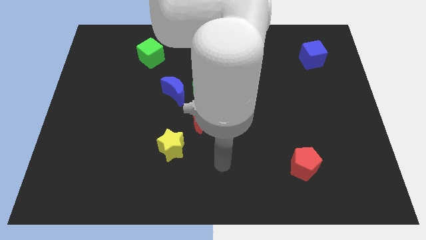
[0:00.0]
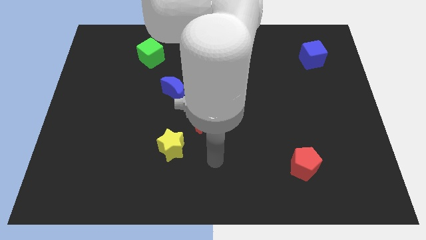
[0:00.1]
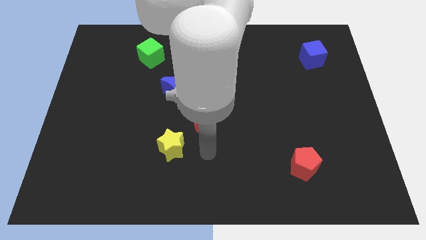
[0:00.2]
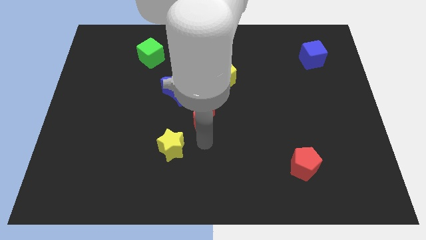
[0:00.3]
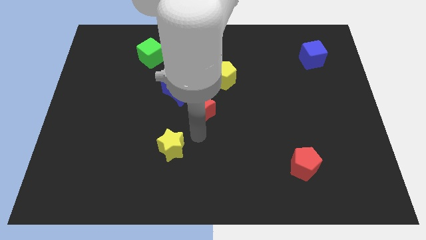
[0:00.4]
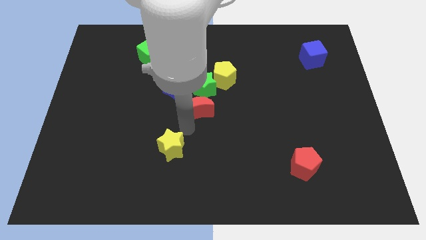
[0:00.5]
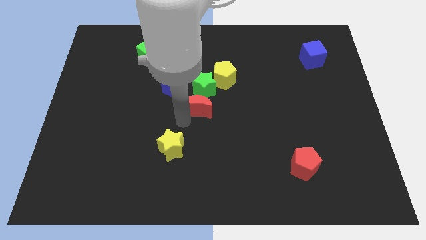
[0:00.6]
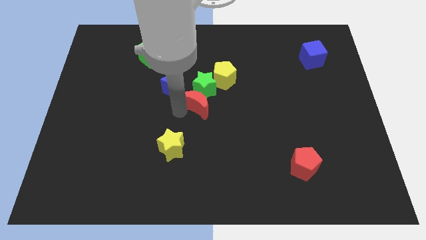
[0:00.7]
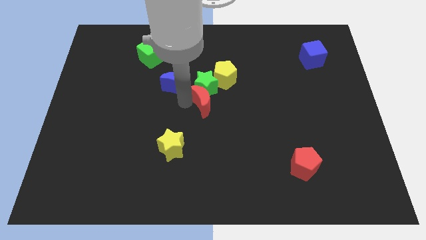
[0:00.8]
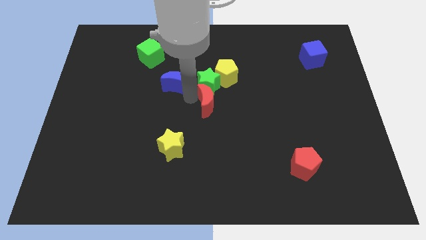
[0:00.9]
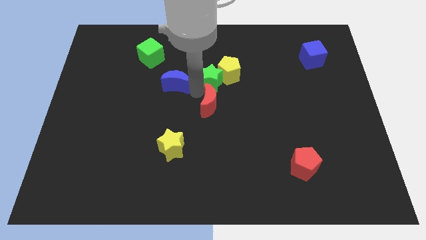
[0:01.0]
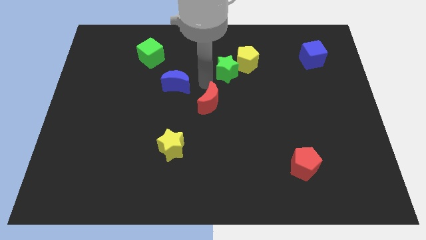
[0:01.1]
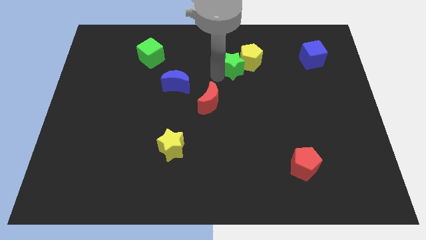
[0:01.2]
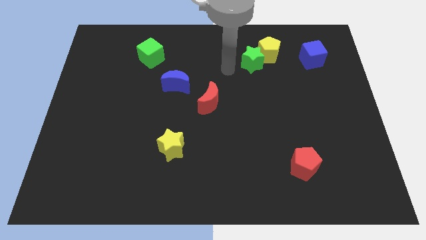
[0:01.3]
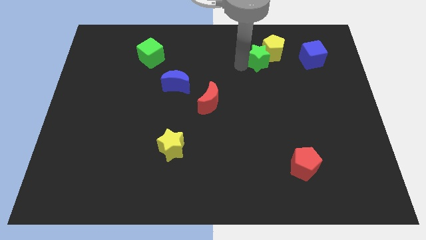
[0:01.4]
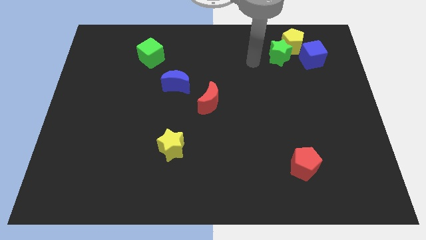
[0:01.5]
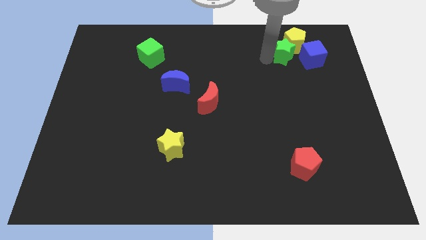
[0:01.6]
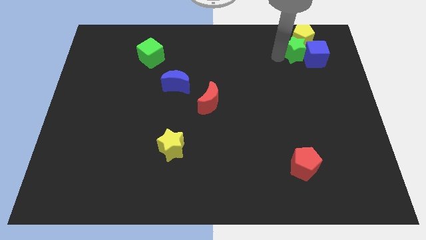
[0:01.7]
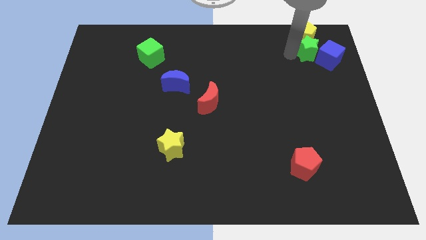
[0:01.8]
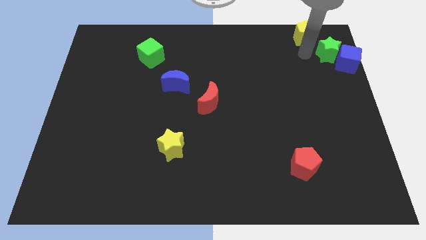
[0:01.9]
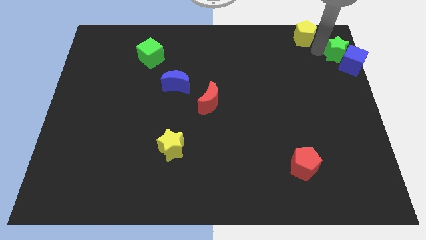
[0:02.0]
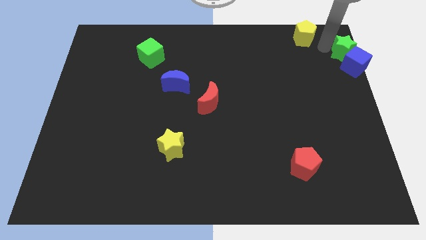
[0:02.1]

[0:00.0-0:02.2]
move the yellow pentagon away from the green star

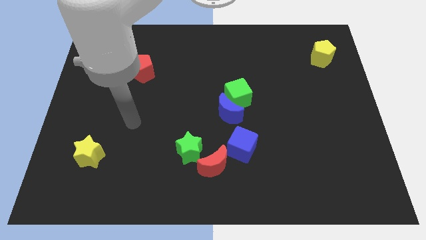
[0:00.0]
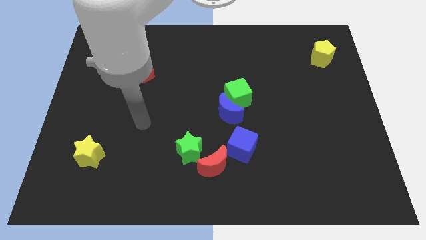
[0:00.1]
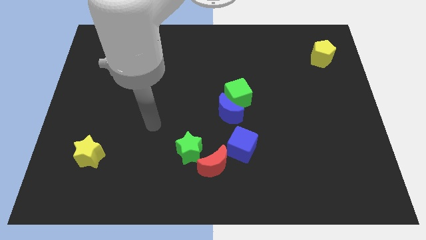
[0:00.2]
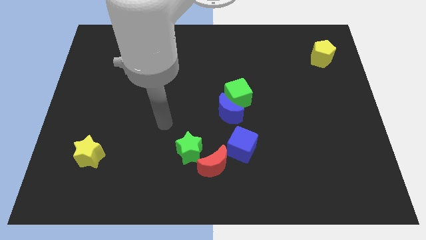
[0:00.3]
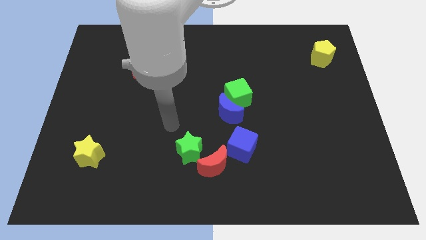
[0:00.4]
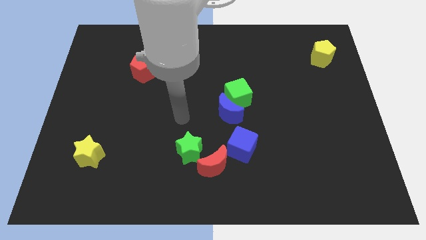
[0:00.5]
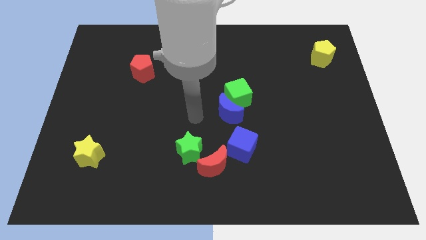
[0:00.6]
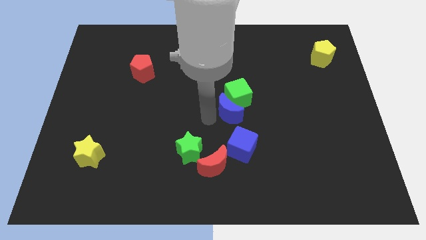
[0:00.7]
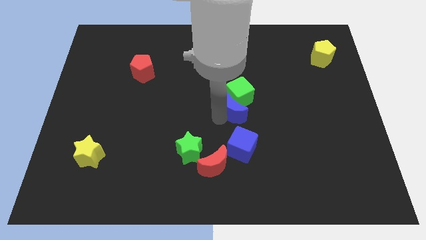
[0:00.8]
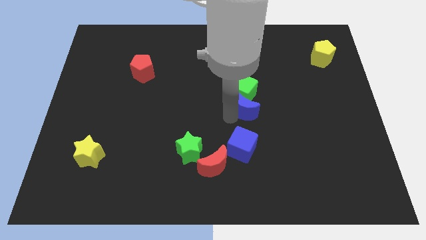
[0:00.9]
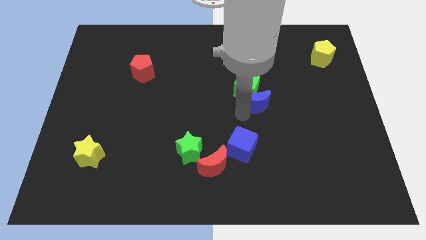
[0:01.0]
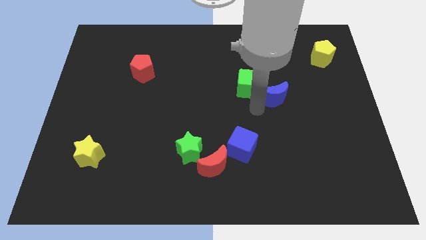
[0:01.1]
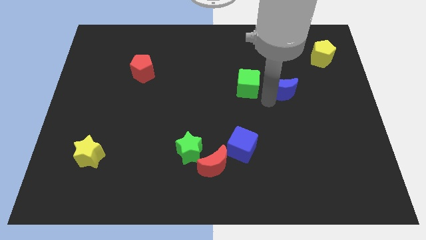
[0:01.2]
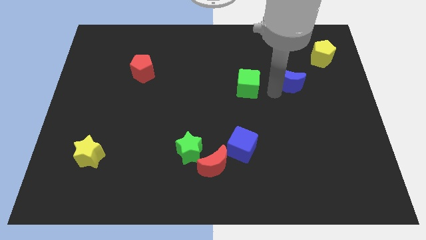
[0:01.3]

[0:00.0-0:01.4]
separate the green cube from the blue moon

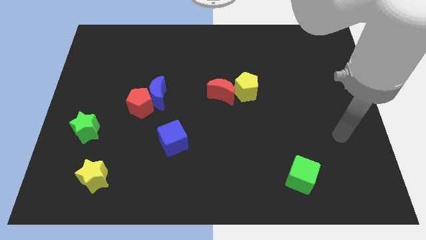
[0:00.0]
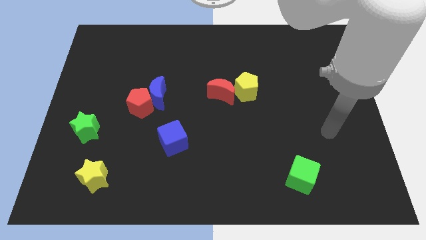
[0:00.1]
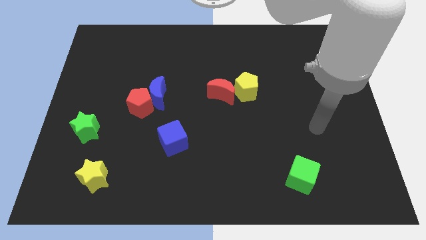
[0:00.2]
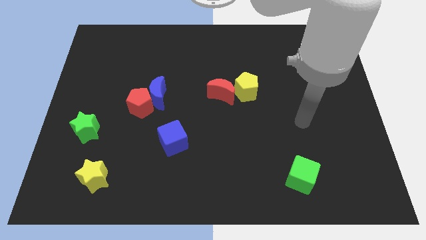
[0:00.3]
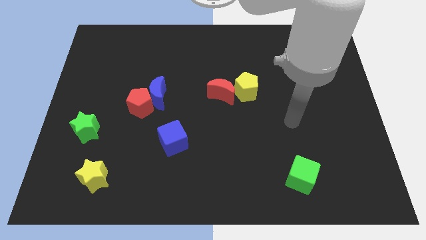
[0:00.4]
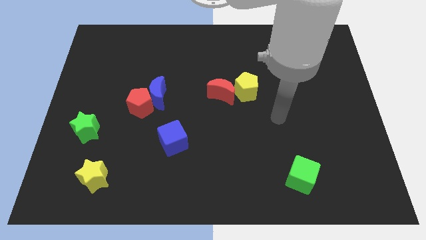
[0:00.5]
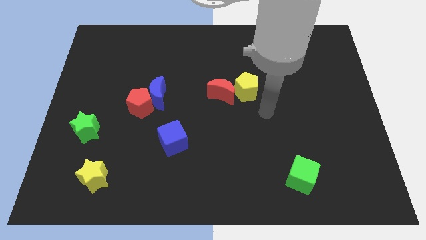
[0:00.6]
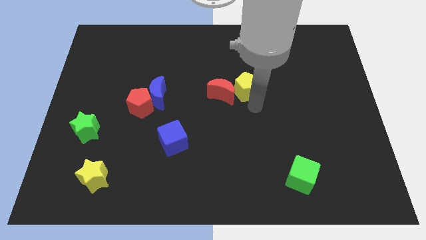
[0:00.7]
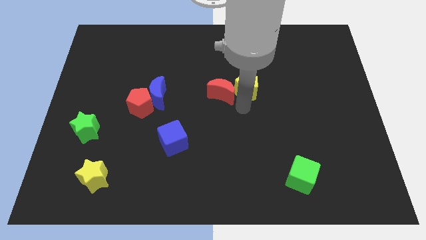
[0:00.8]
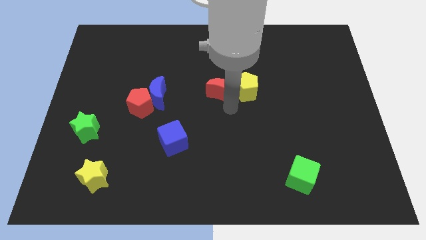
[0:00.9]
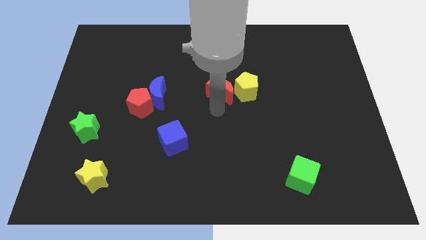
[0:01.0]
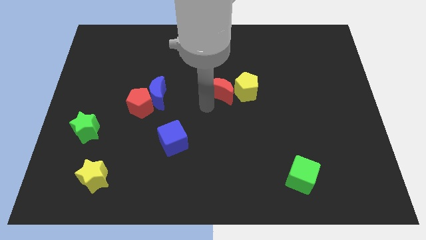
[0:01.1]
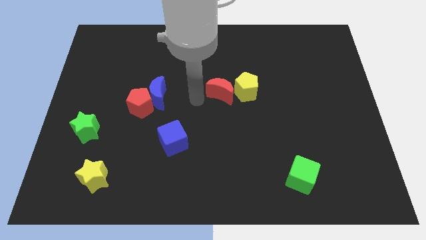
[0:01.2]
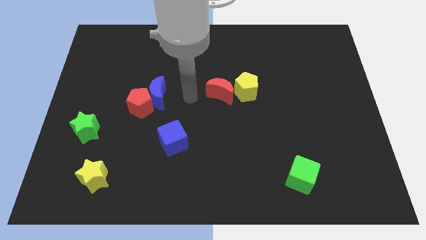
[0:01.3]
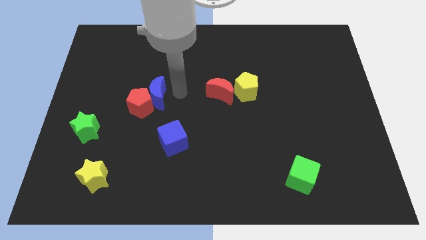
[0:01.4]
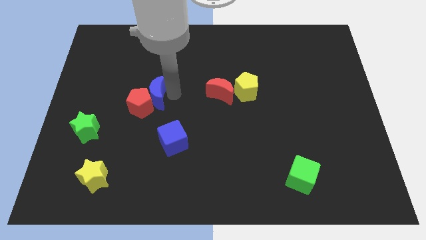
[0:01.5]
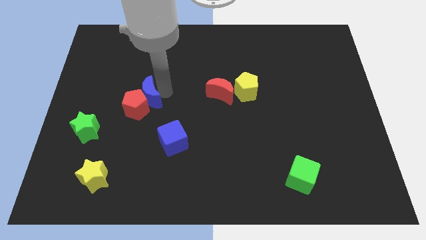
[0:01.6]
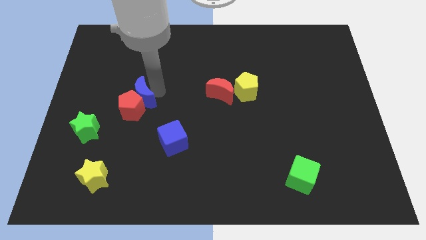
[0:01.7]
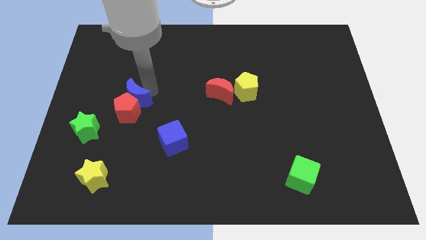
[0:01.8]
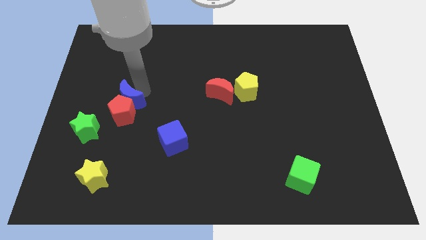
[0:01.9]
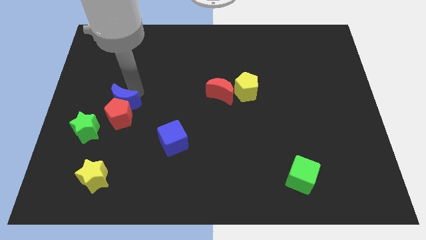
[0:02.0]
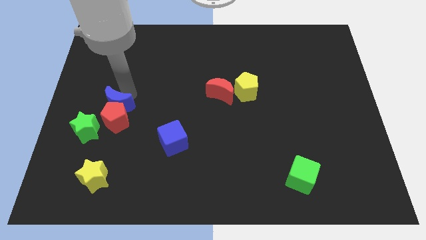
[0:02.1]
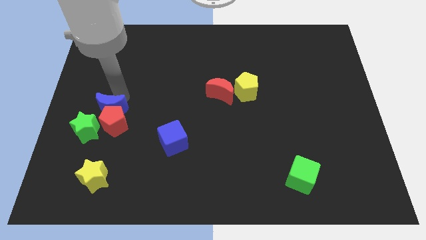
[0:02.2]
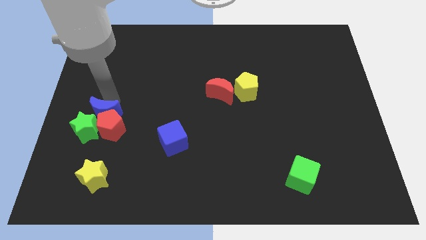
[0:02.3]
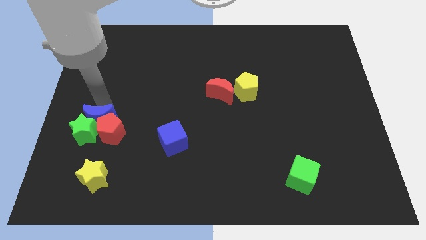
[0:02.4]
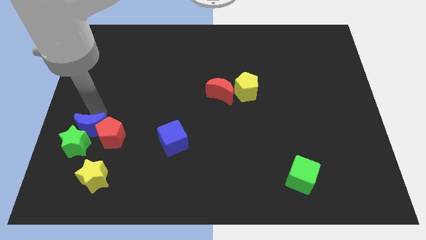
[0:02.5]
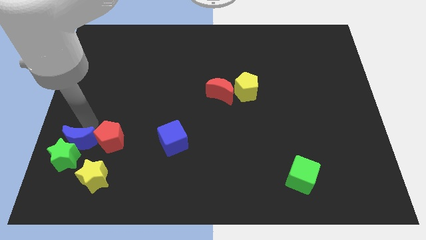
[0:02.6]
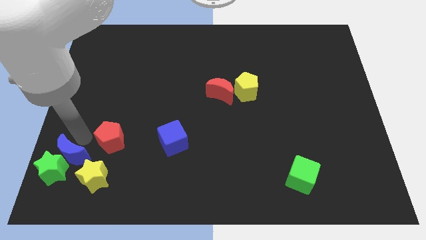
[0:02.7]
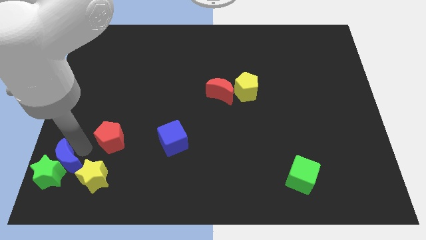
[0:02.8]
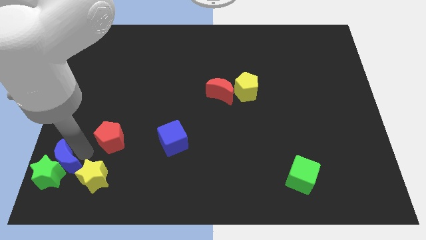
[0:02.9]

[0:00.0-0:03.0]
pull the red pentagon apart from the blue moon

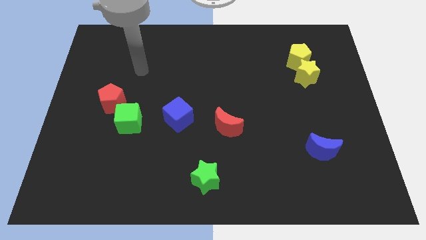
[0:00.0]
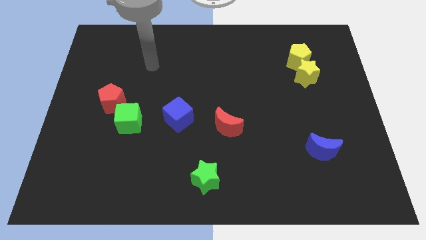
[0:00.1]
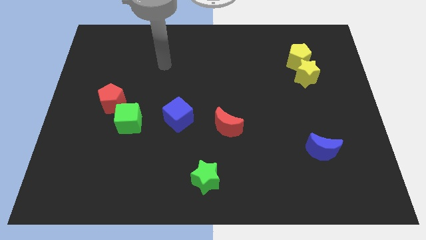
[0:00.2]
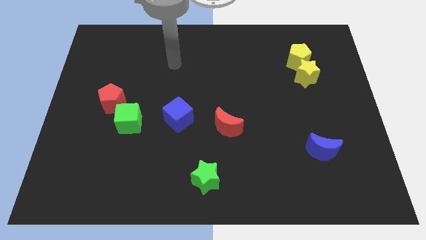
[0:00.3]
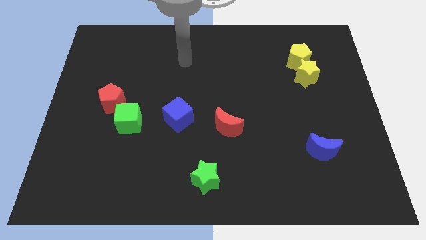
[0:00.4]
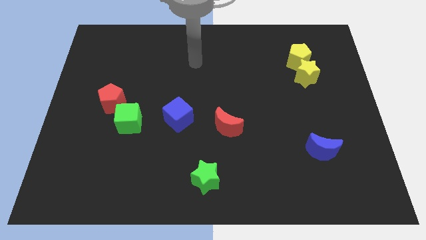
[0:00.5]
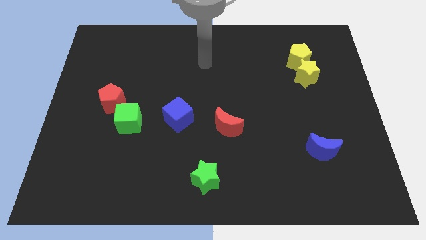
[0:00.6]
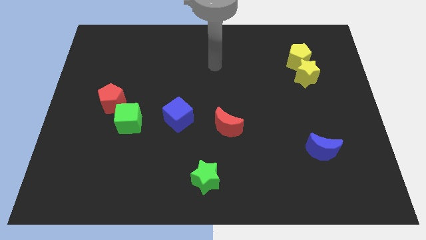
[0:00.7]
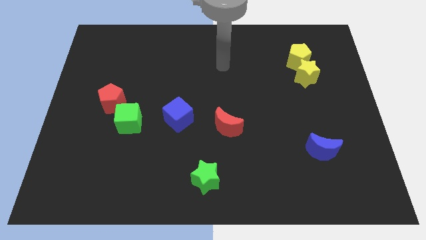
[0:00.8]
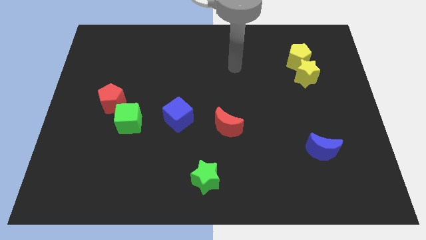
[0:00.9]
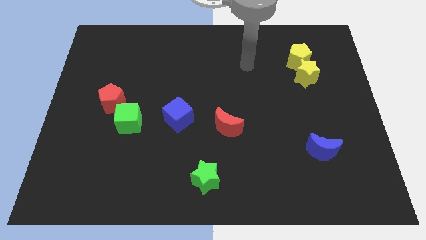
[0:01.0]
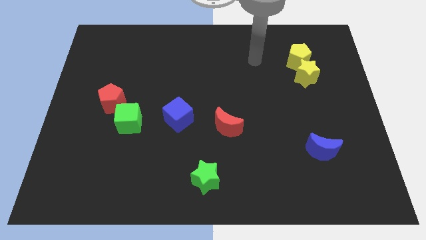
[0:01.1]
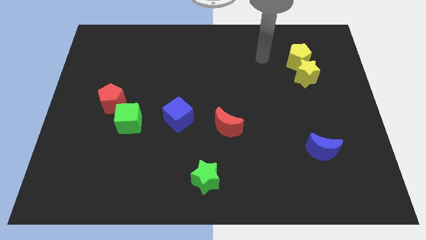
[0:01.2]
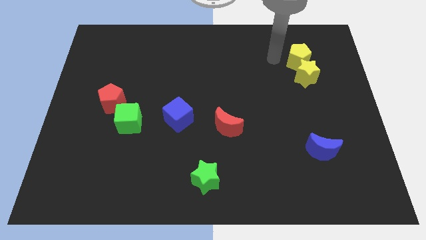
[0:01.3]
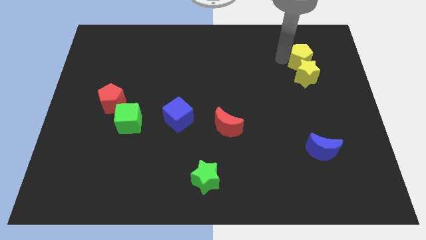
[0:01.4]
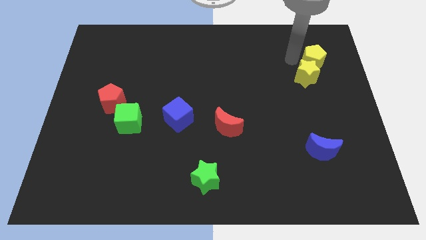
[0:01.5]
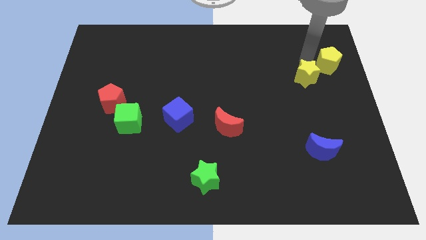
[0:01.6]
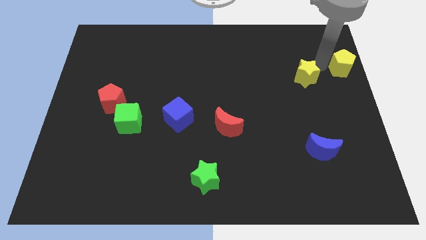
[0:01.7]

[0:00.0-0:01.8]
pull the yellow star apart from the yellow pentagon

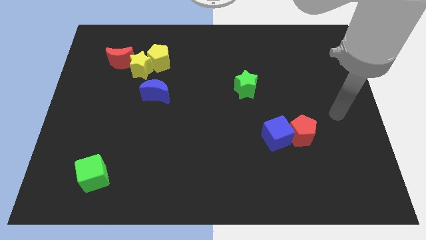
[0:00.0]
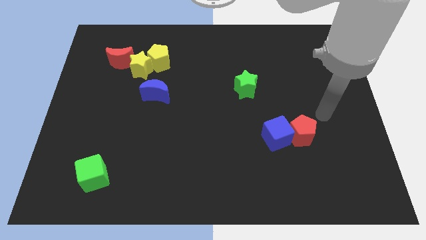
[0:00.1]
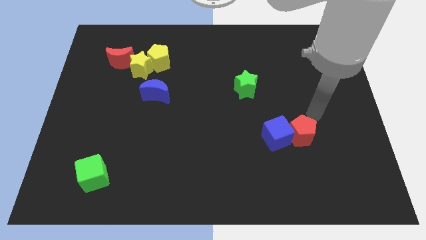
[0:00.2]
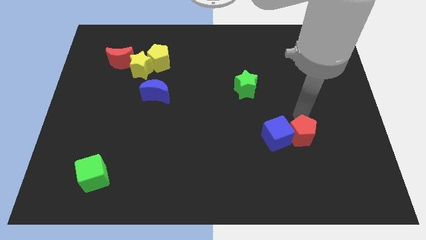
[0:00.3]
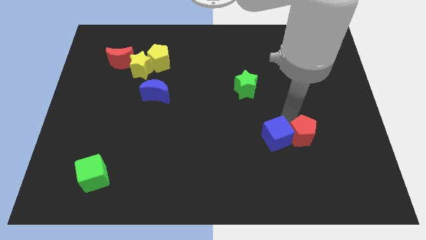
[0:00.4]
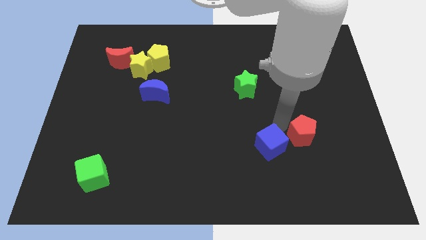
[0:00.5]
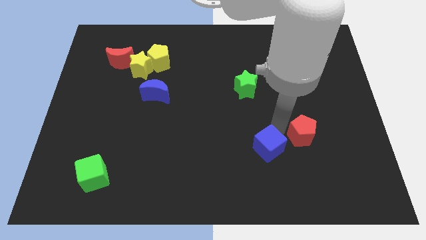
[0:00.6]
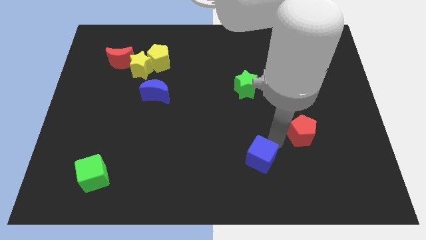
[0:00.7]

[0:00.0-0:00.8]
move the red pentagon away from the blue cube
